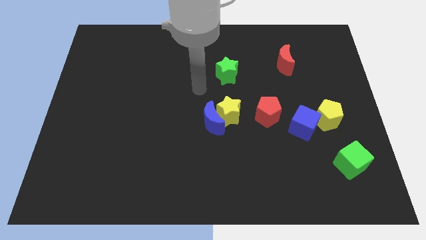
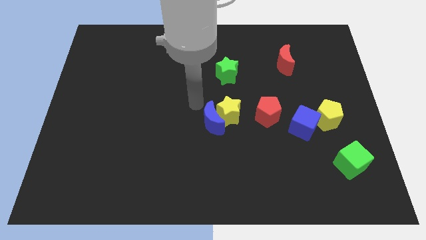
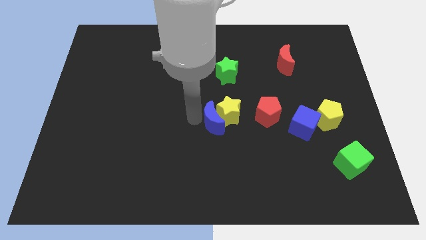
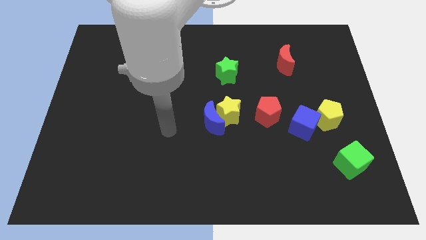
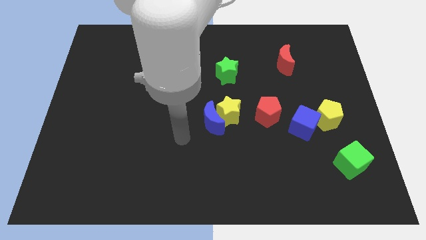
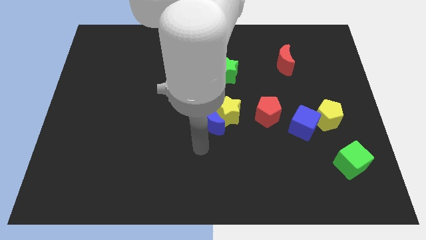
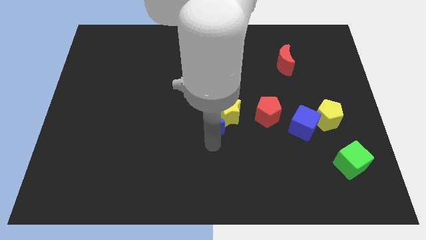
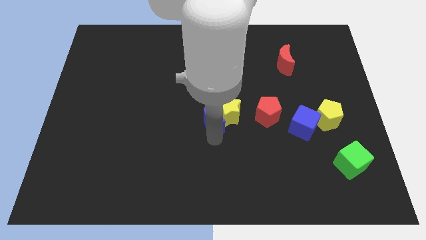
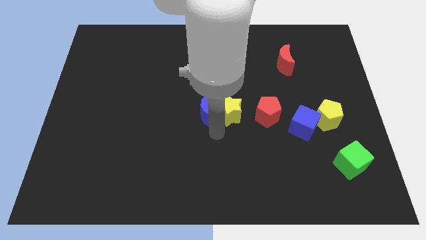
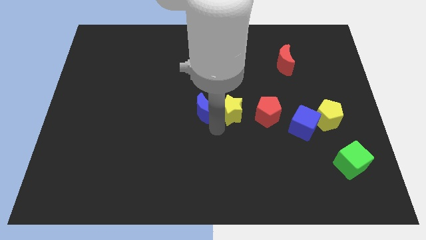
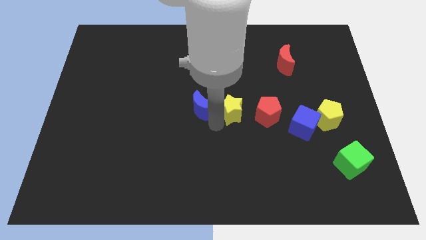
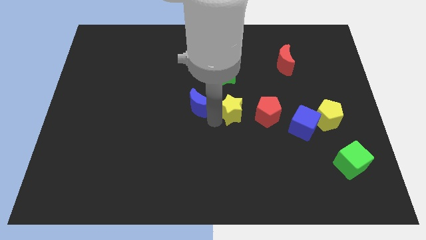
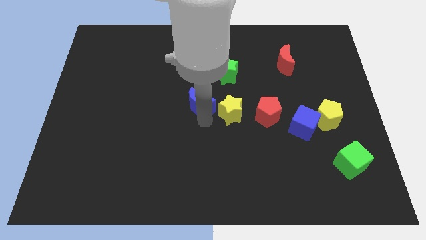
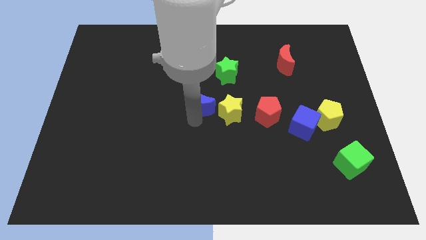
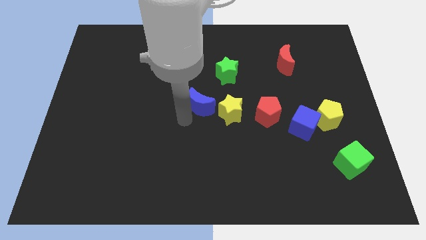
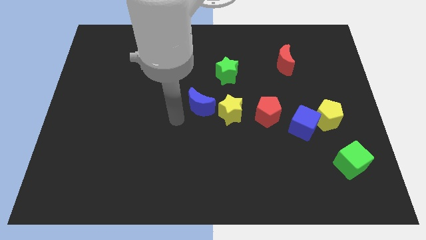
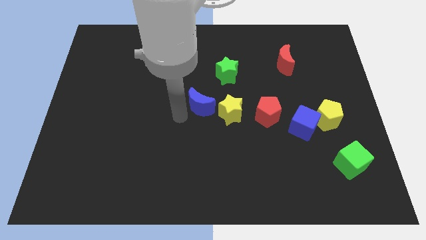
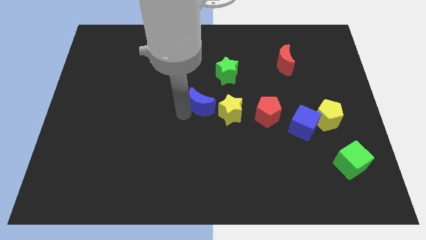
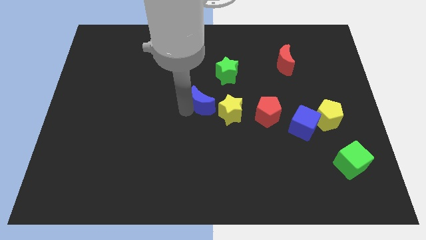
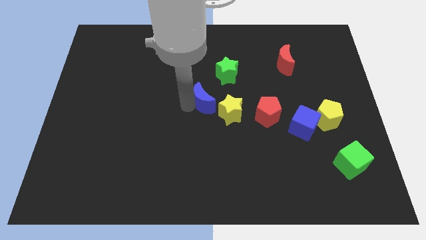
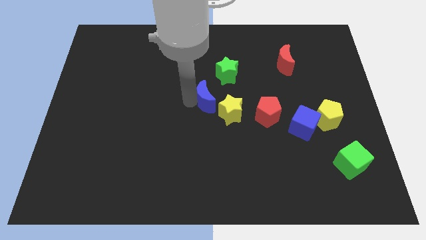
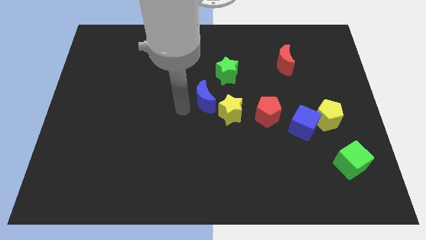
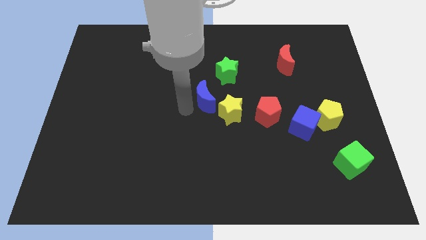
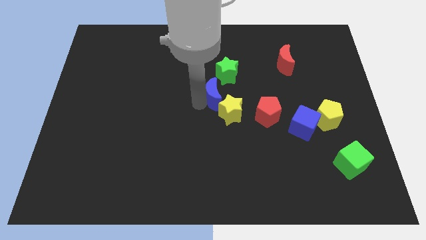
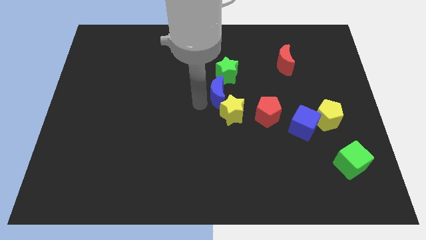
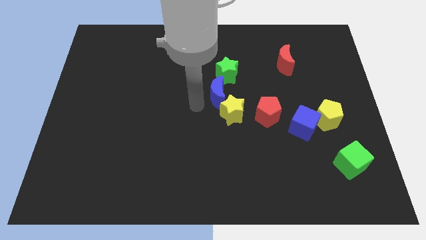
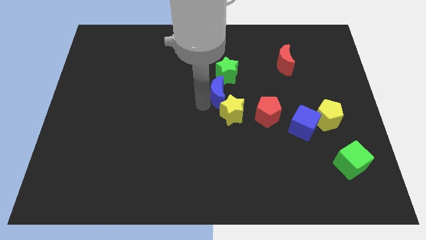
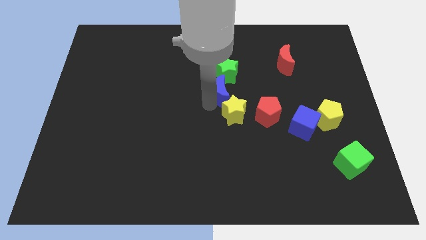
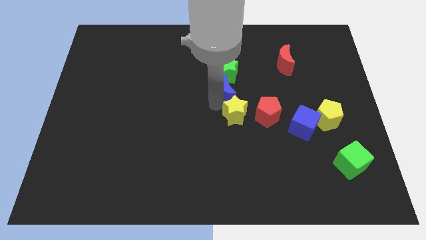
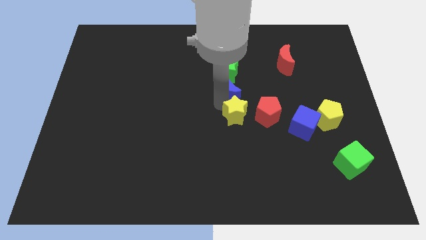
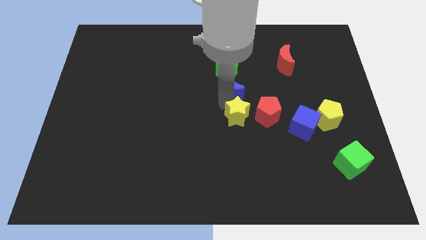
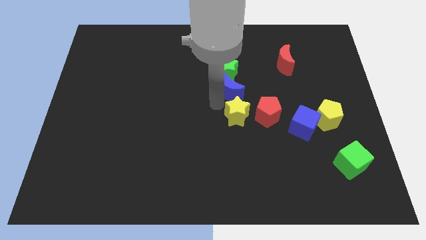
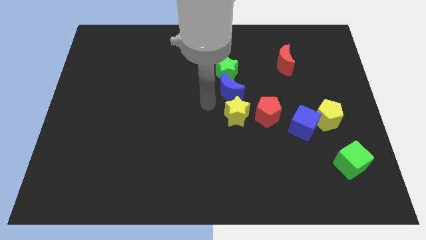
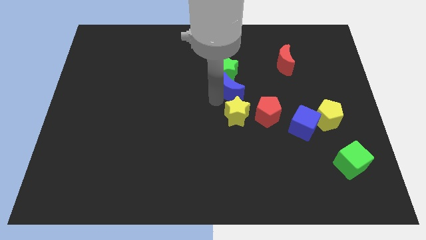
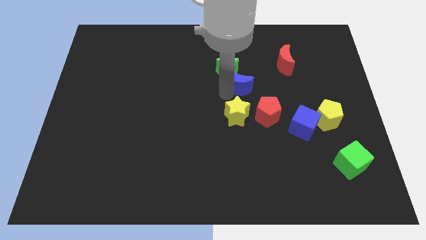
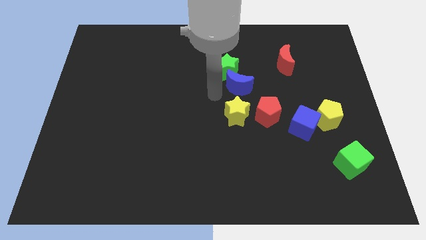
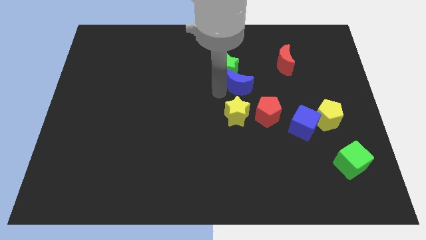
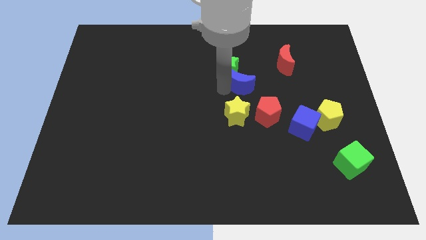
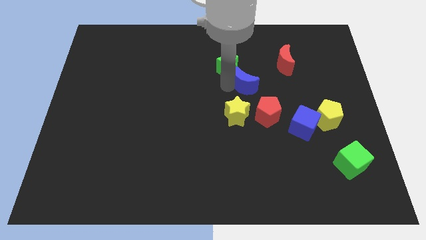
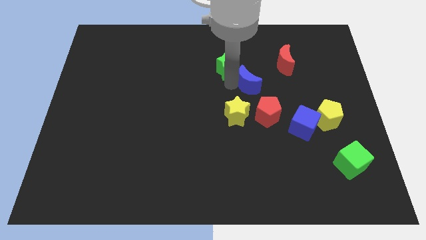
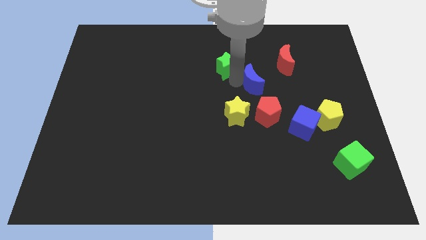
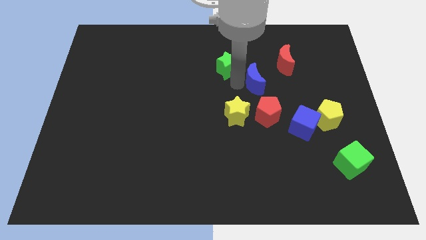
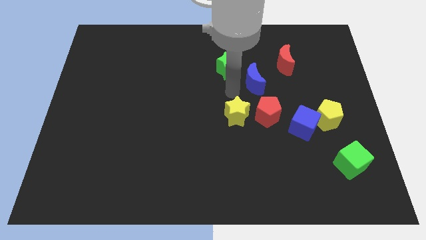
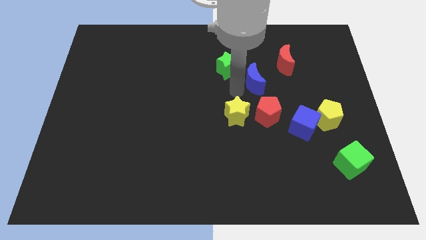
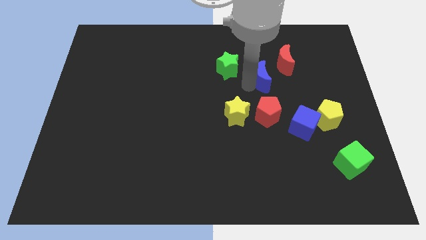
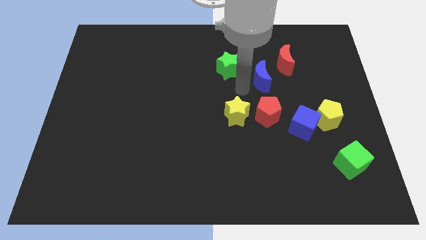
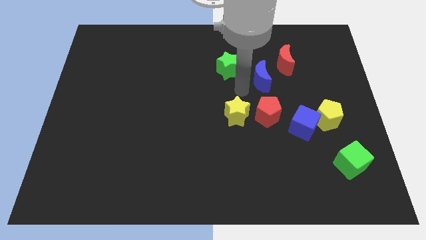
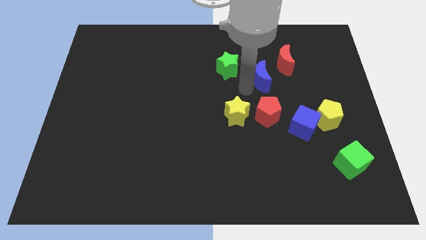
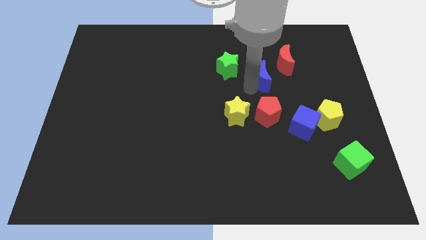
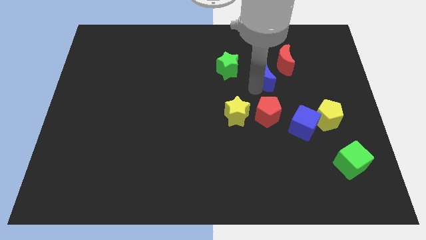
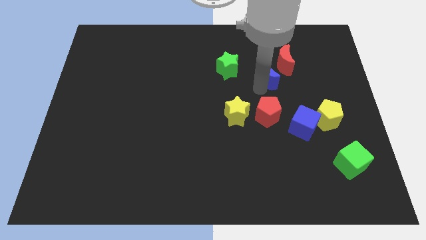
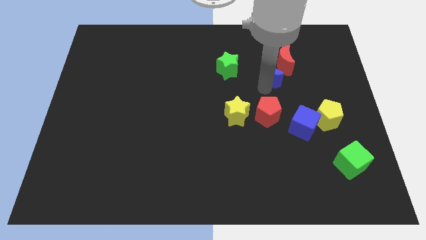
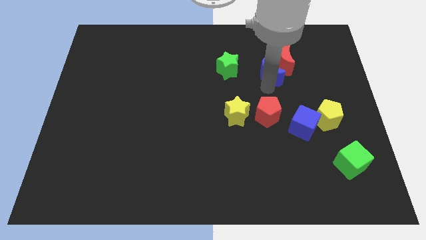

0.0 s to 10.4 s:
move the blue moon next to the red moon

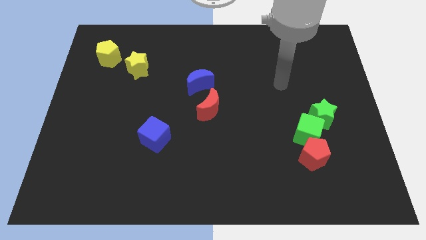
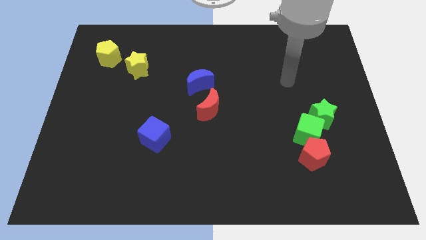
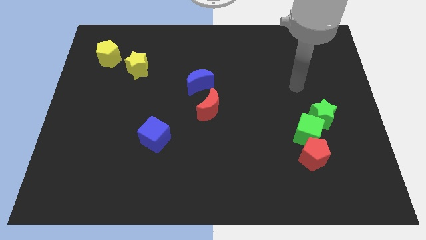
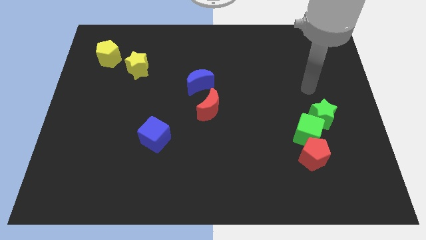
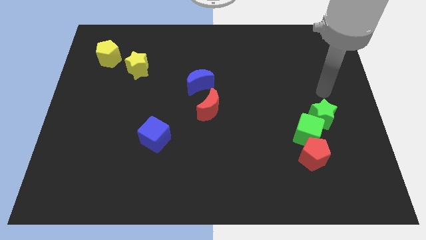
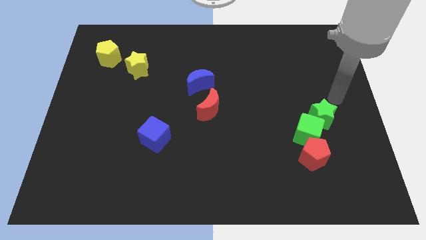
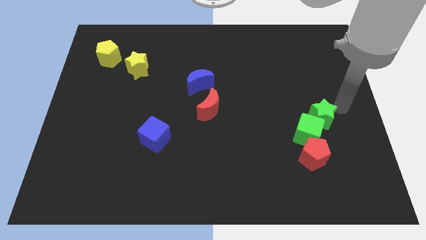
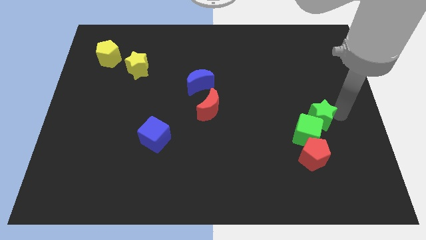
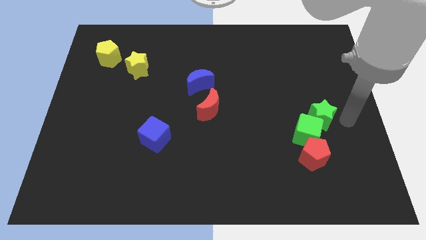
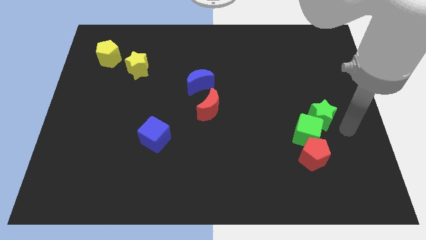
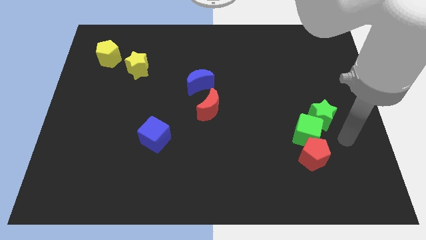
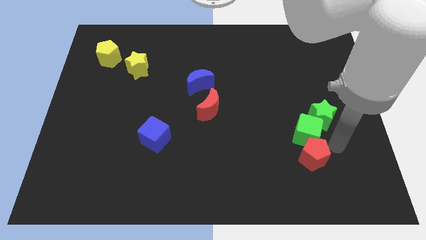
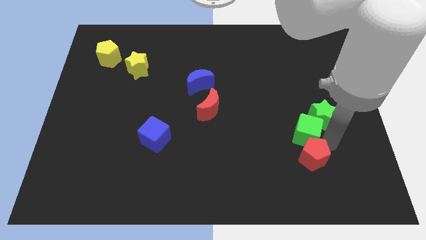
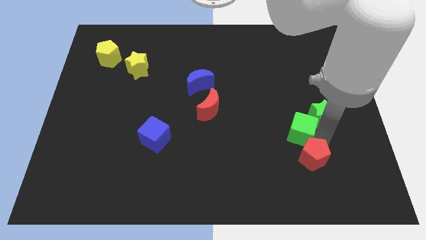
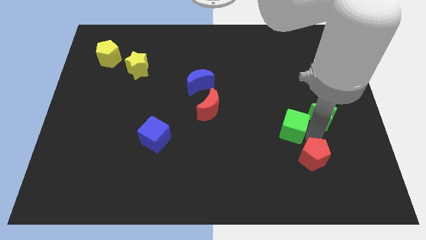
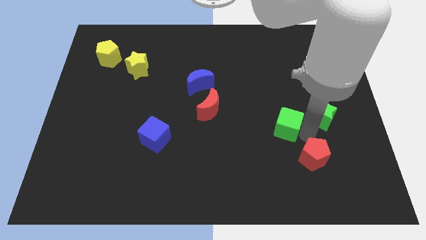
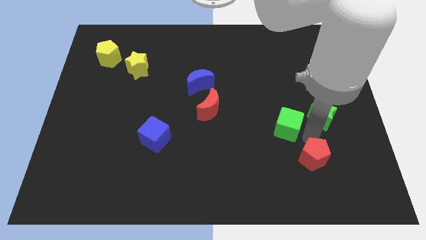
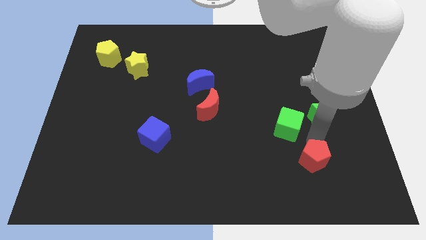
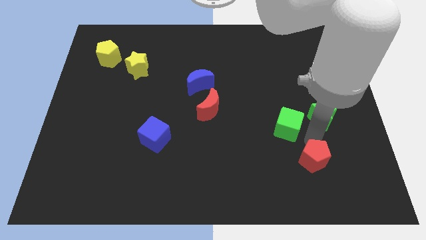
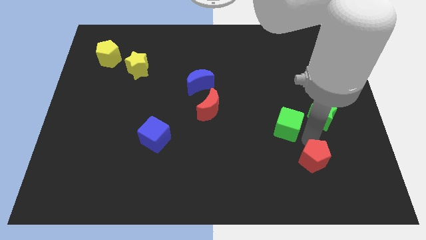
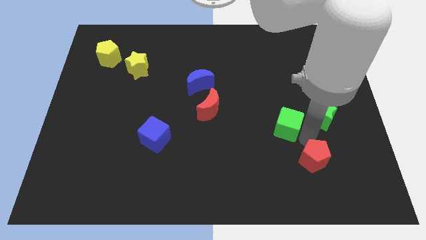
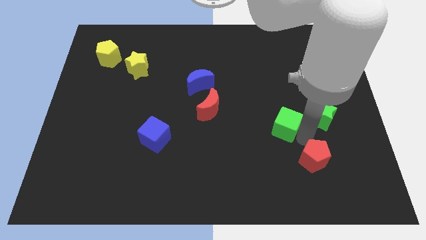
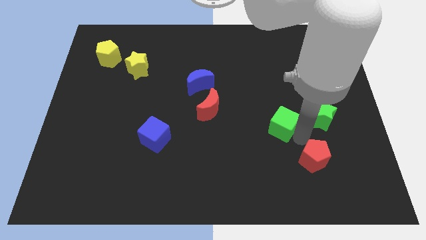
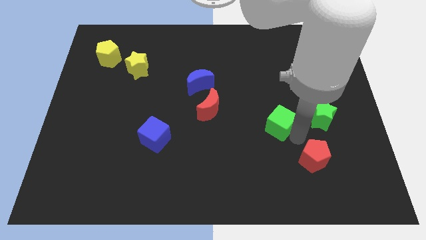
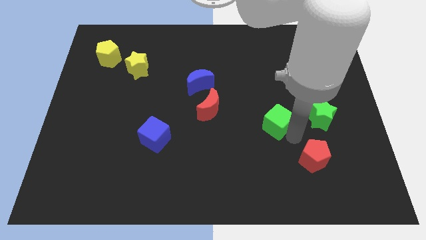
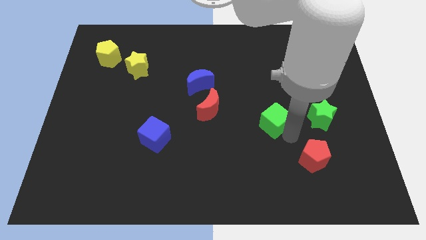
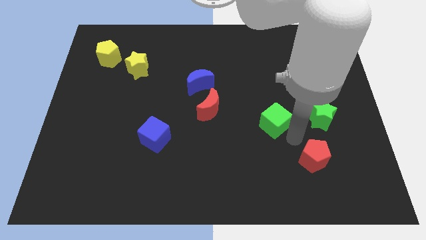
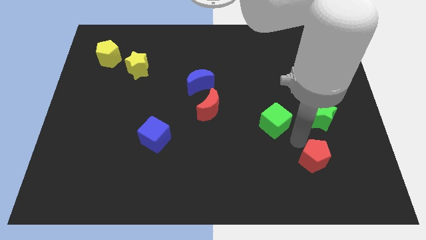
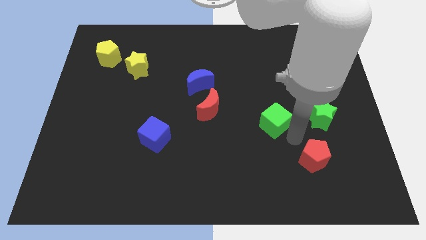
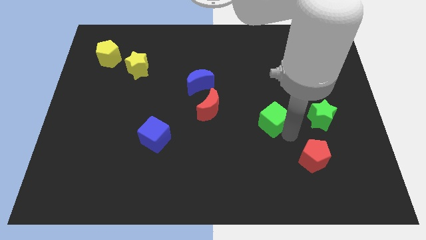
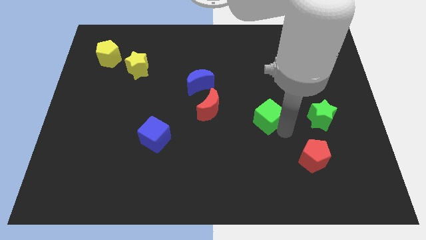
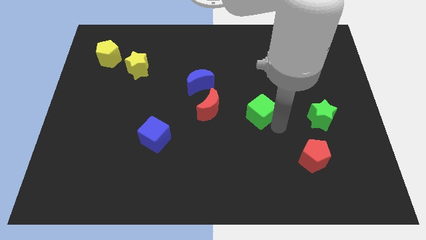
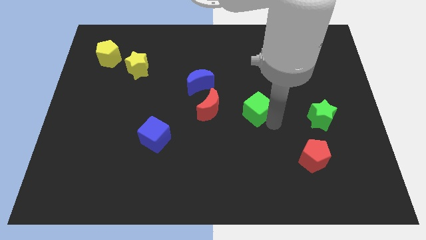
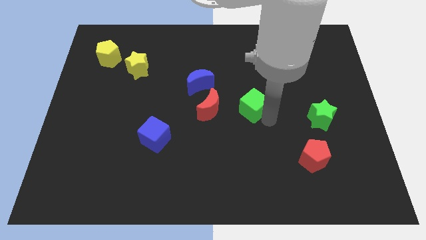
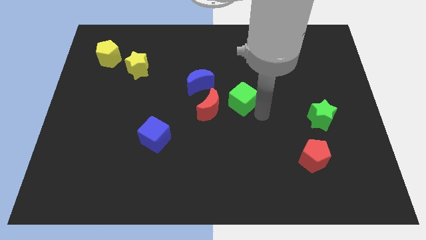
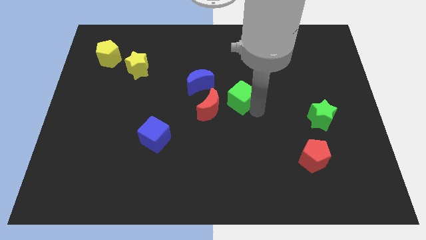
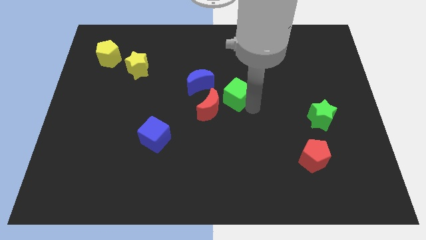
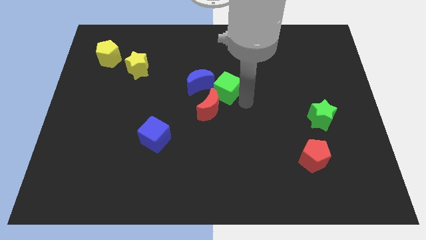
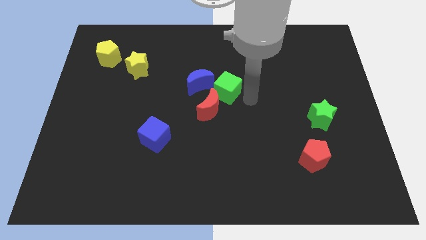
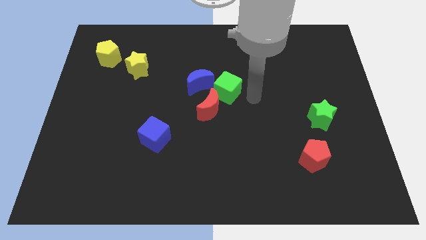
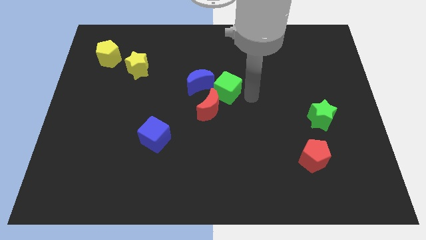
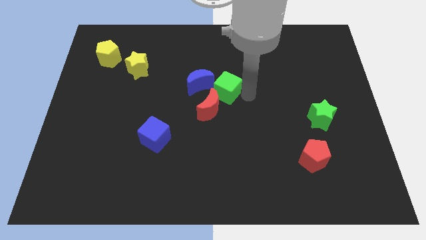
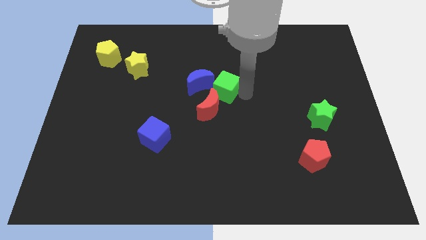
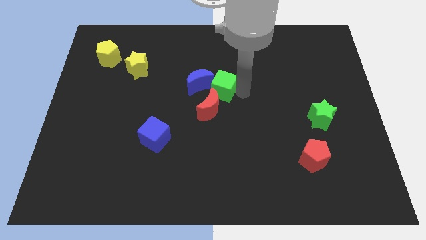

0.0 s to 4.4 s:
slide the green cube close to the blue moon
